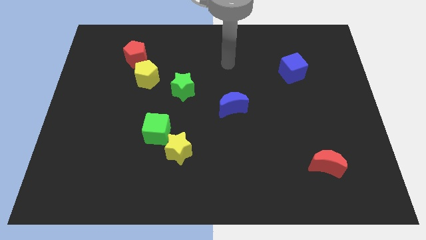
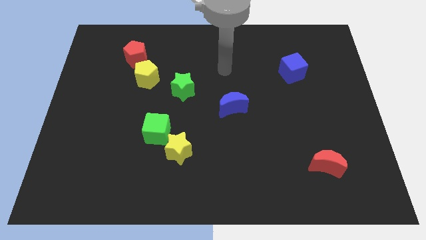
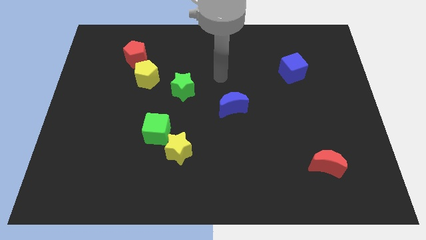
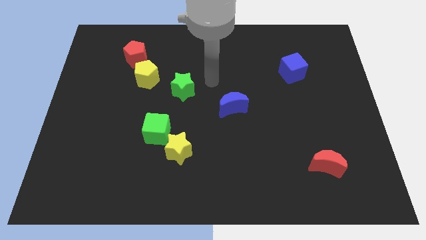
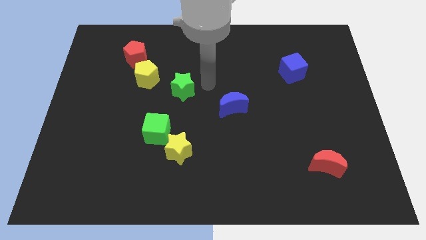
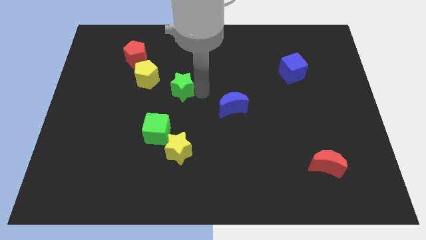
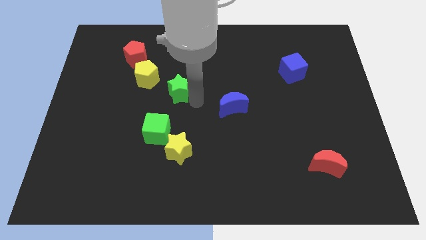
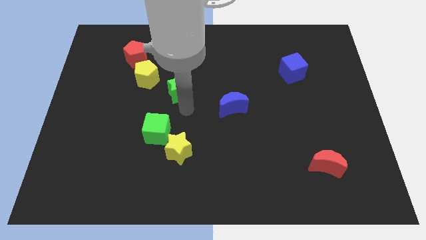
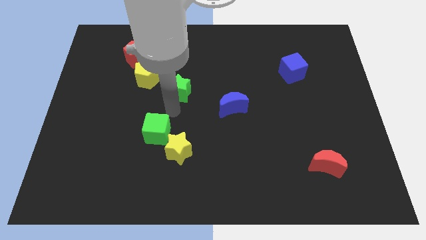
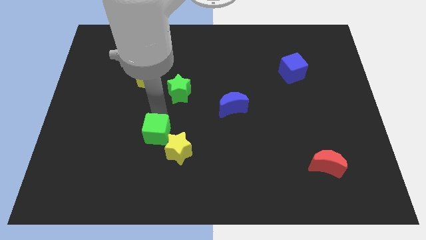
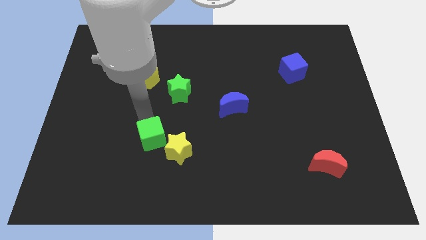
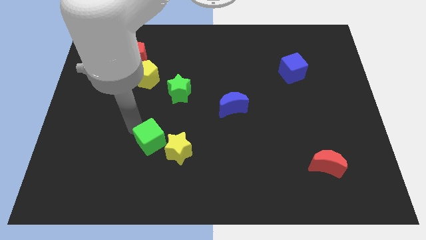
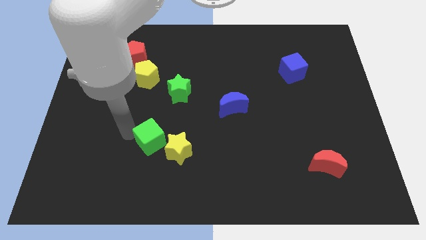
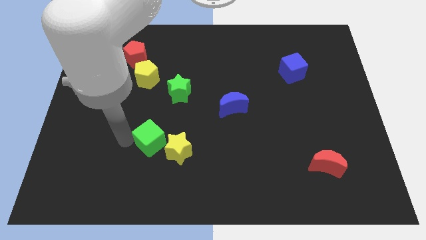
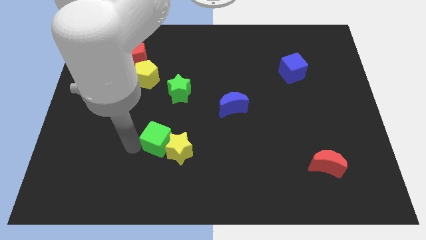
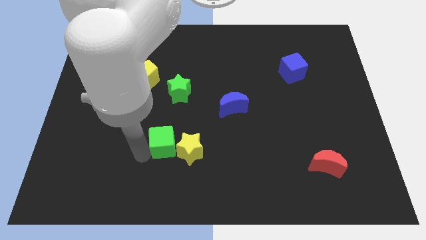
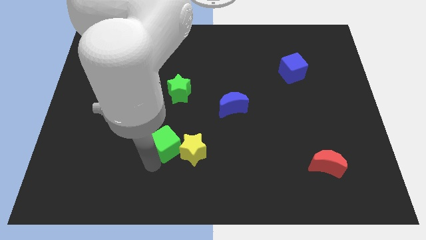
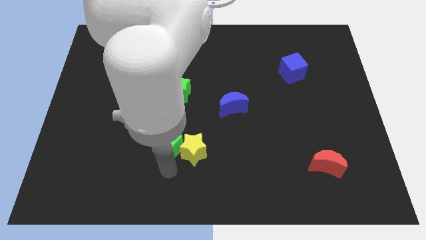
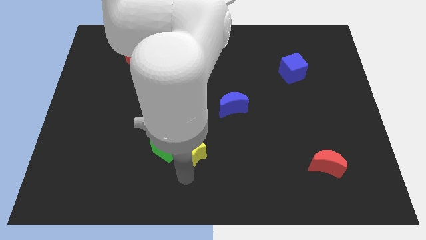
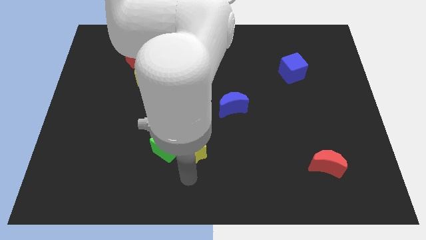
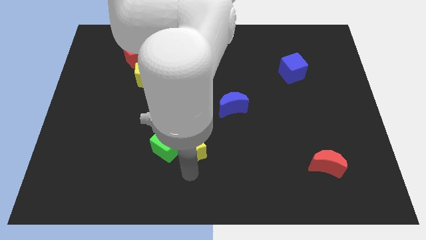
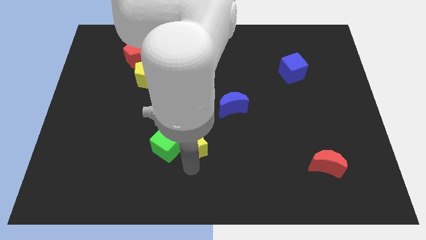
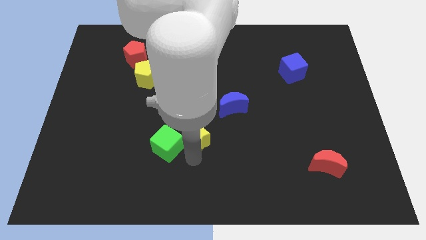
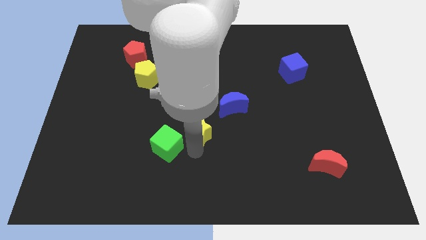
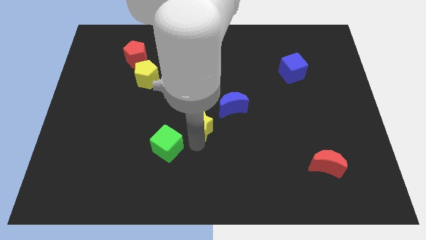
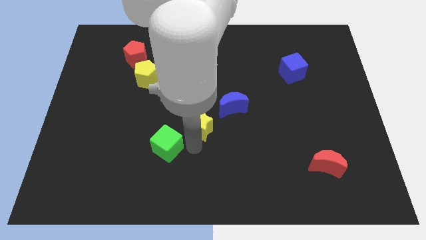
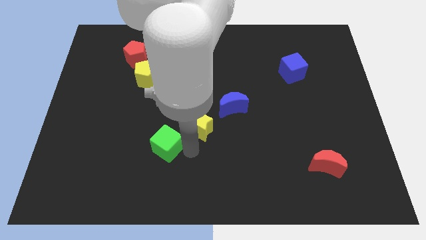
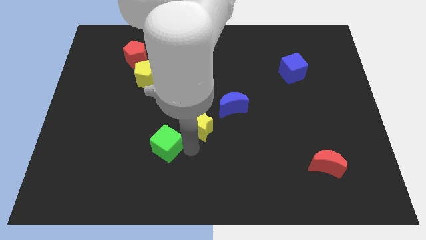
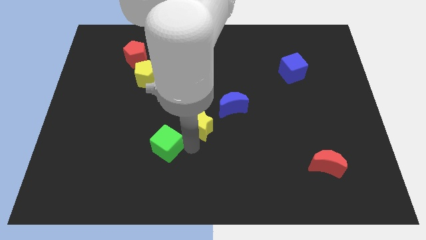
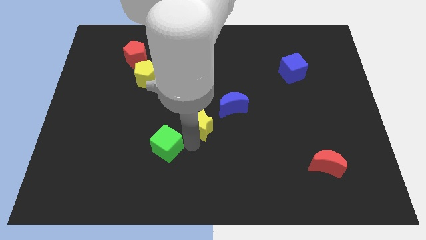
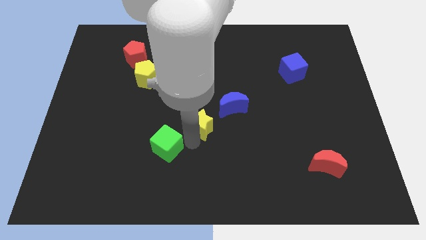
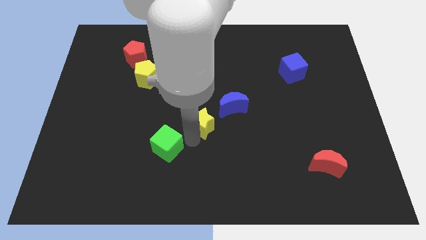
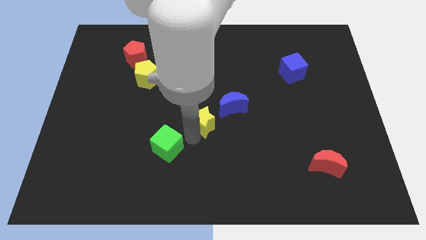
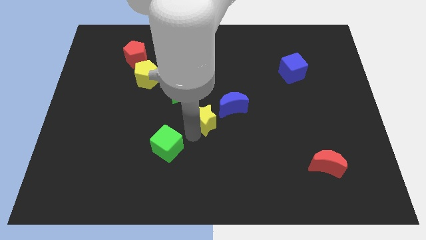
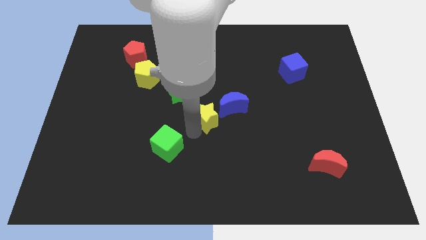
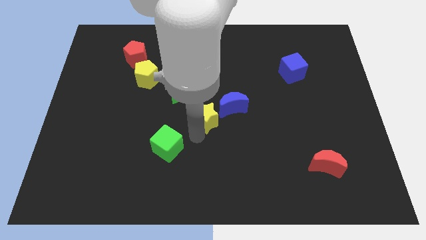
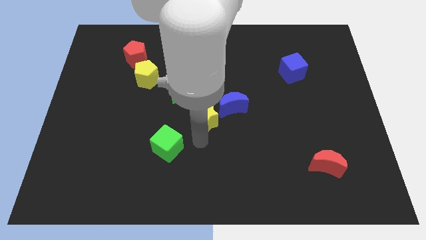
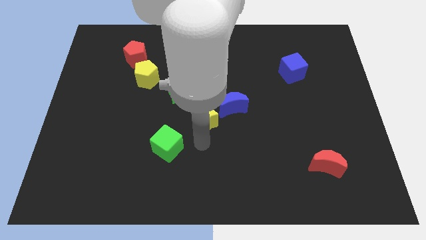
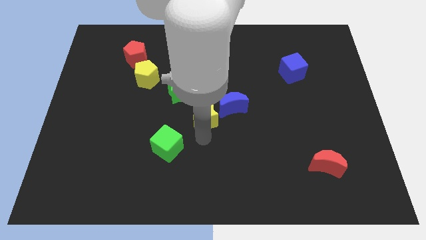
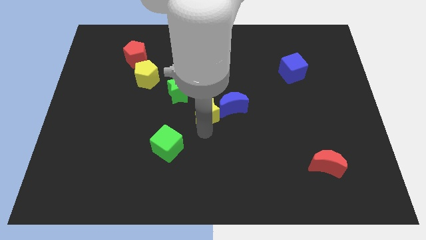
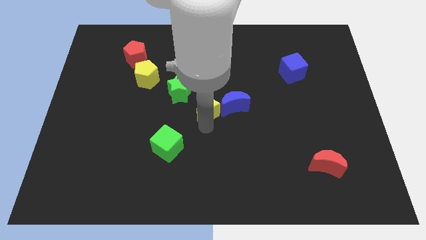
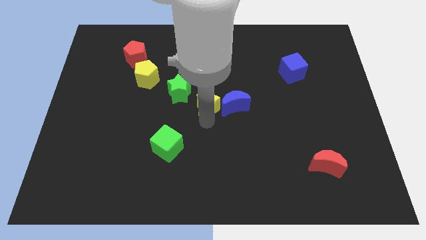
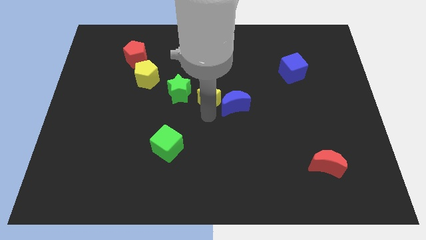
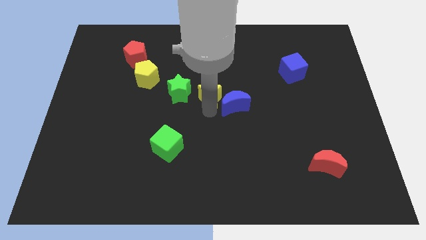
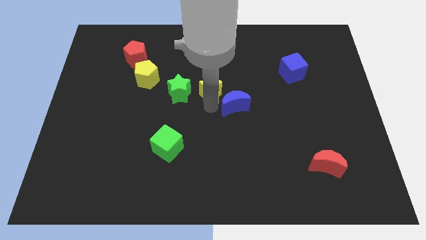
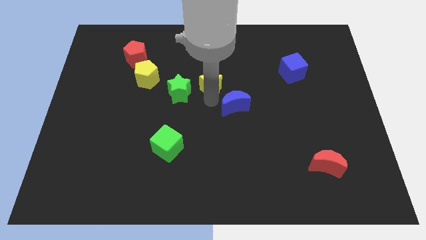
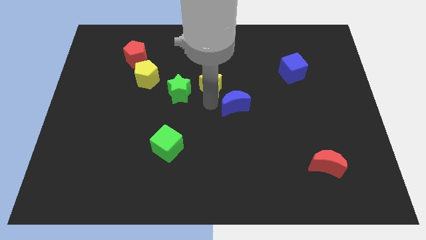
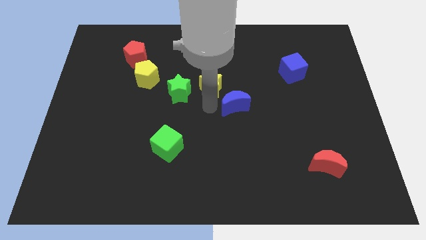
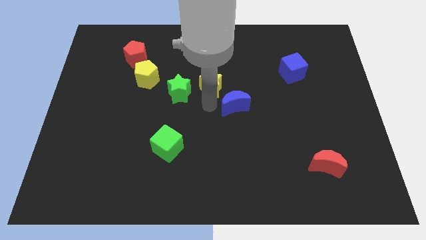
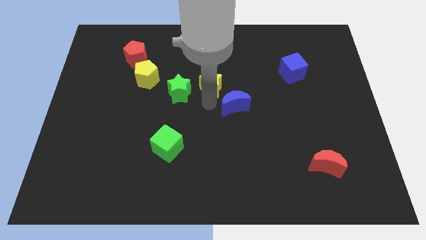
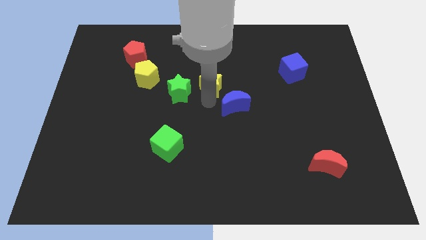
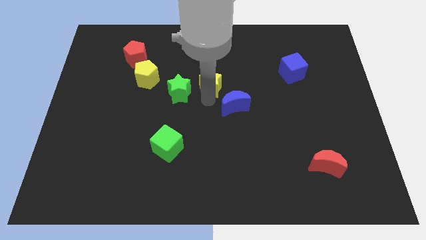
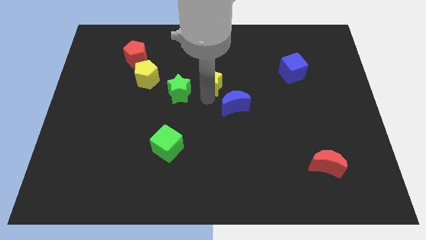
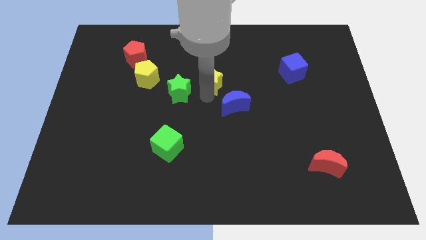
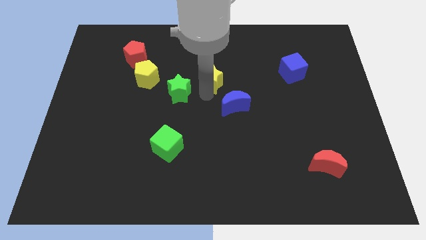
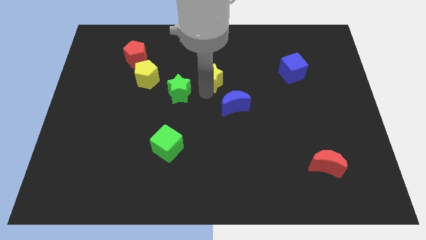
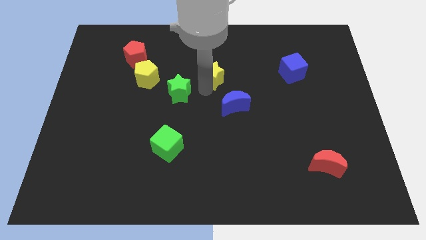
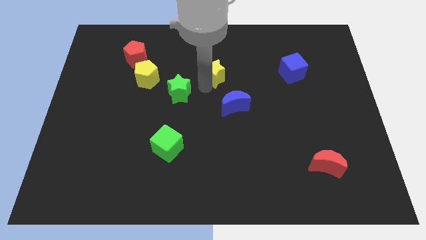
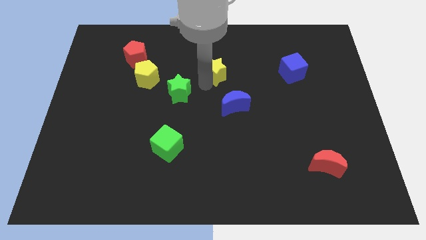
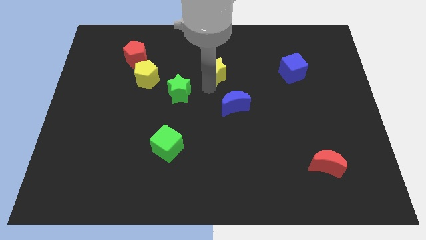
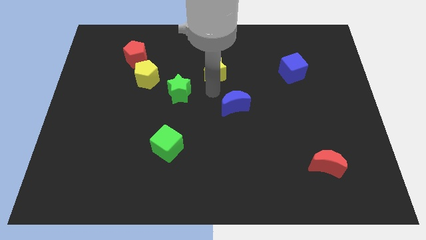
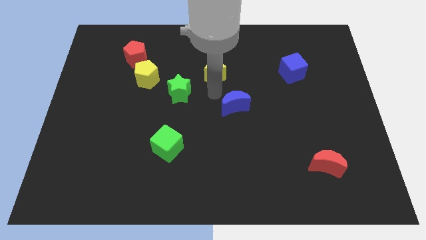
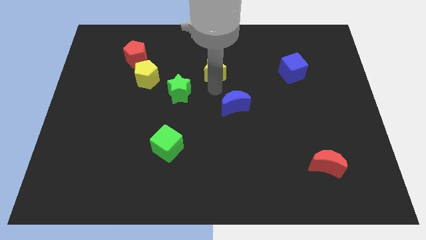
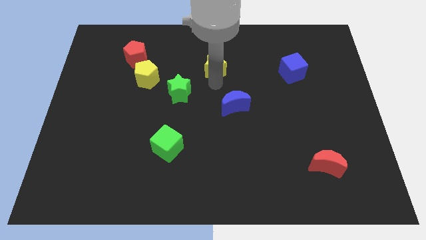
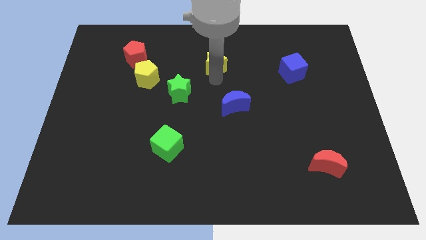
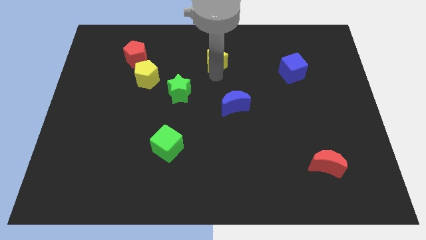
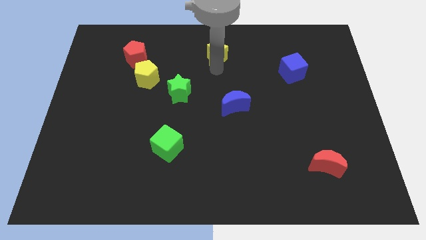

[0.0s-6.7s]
slide the yellow star to the towards your base
